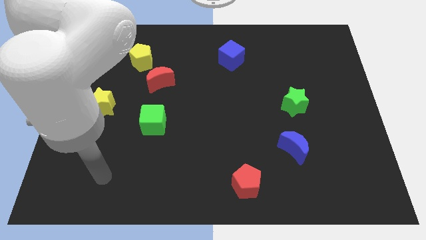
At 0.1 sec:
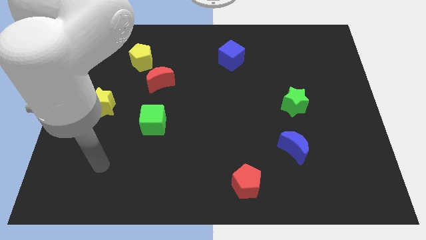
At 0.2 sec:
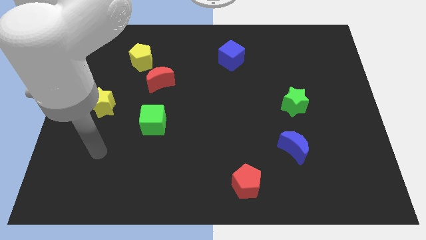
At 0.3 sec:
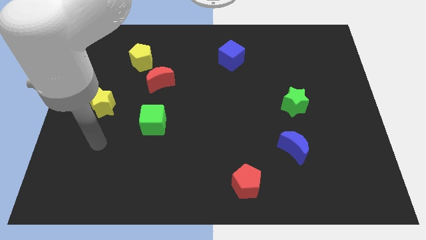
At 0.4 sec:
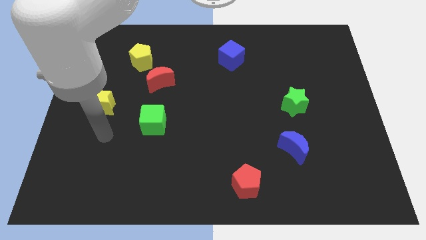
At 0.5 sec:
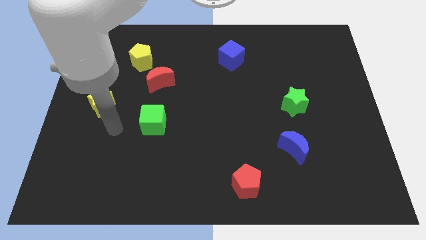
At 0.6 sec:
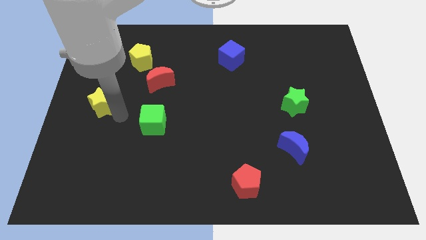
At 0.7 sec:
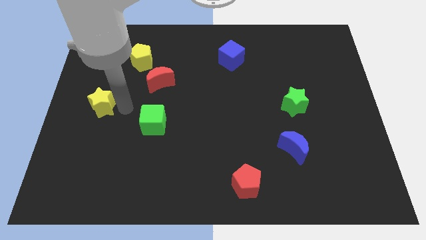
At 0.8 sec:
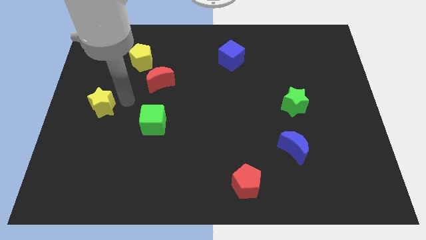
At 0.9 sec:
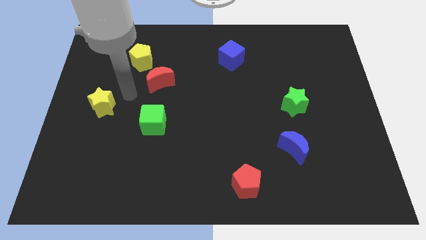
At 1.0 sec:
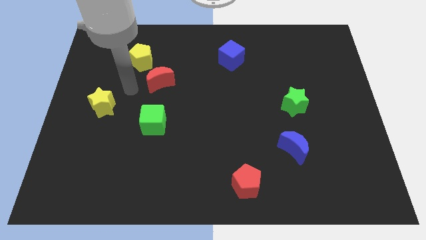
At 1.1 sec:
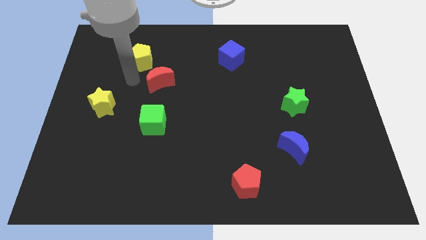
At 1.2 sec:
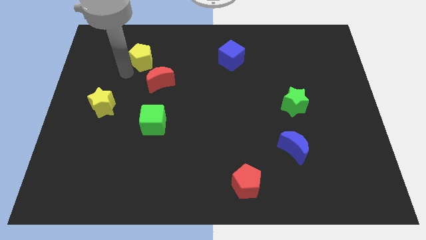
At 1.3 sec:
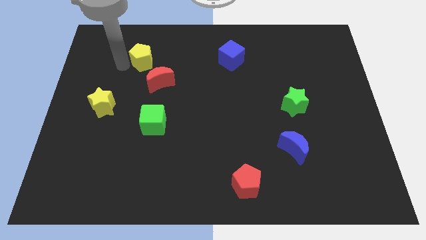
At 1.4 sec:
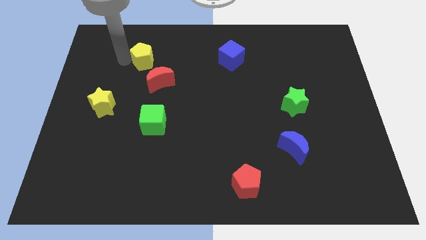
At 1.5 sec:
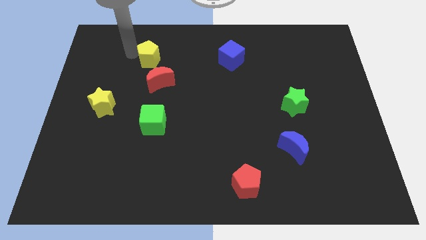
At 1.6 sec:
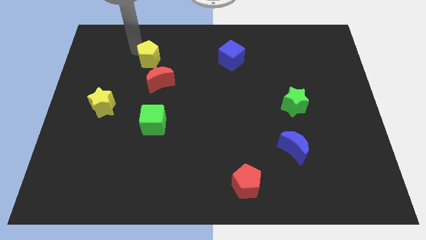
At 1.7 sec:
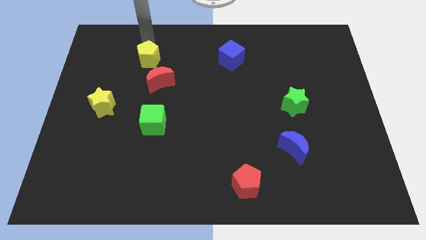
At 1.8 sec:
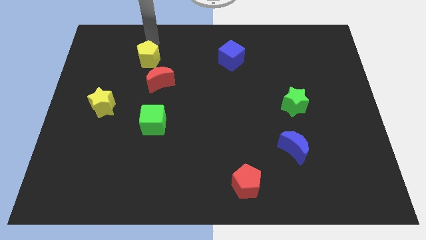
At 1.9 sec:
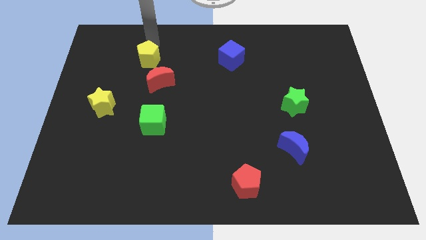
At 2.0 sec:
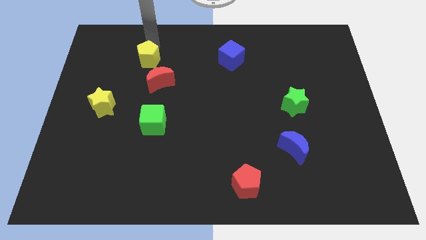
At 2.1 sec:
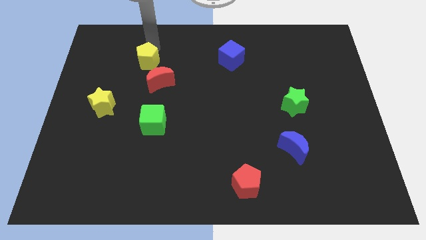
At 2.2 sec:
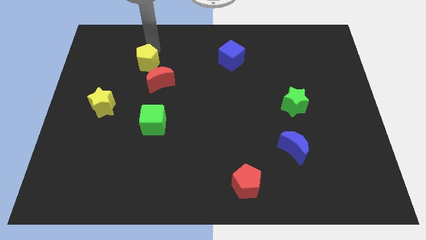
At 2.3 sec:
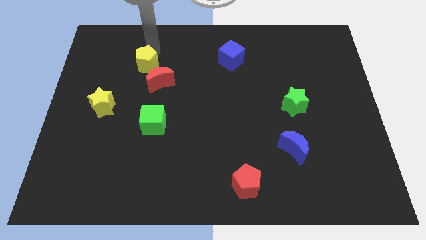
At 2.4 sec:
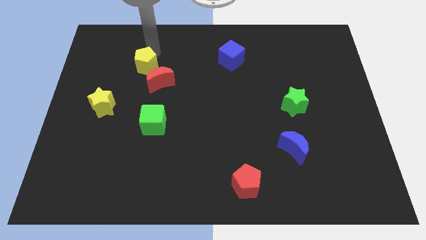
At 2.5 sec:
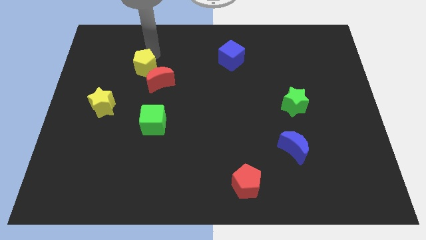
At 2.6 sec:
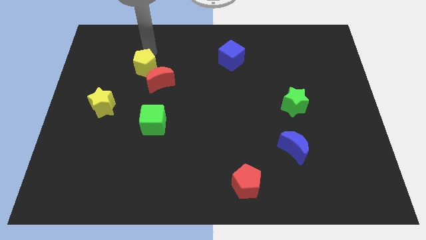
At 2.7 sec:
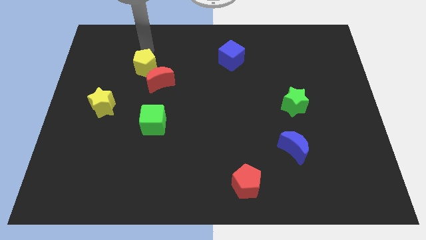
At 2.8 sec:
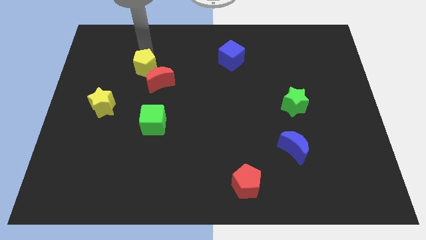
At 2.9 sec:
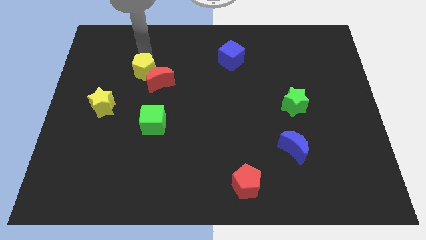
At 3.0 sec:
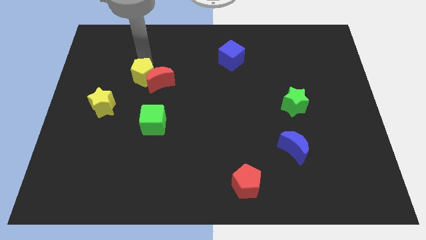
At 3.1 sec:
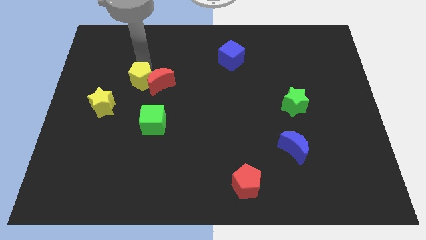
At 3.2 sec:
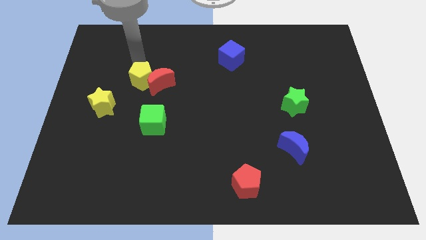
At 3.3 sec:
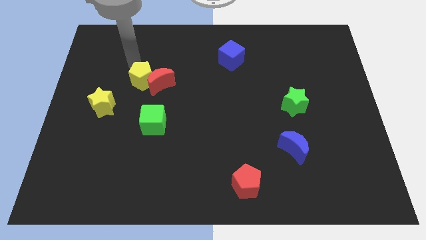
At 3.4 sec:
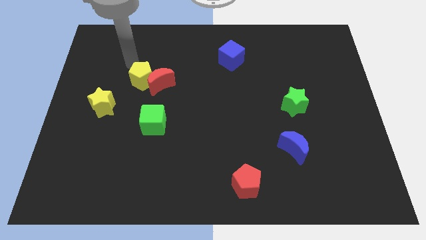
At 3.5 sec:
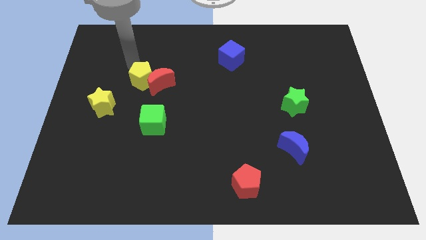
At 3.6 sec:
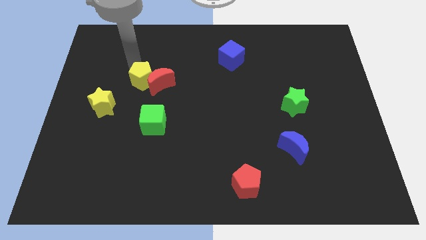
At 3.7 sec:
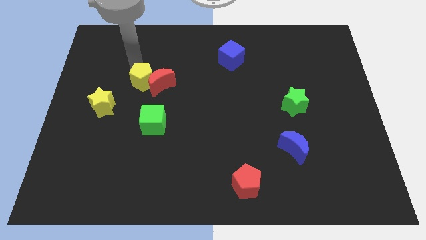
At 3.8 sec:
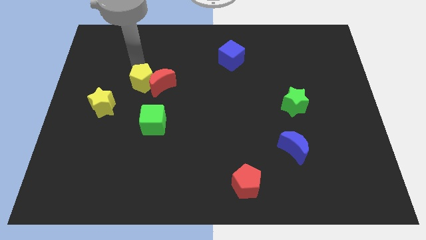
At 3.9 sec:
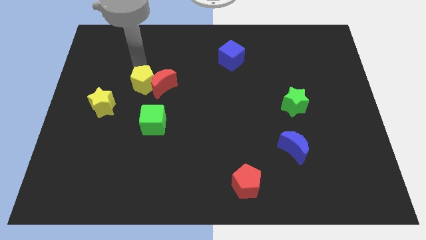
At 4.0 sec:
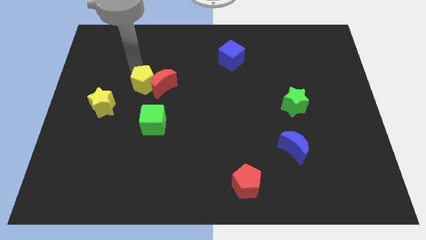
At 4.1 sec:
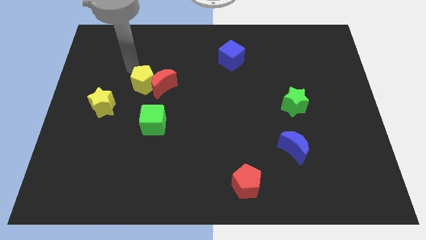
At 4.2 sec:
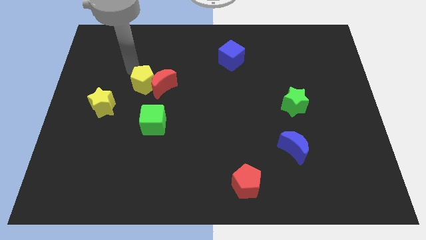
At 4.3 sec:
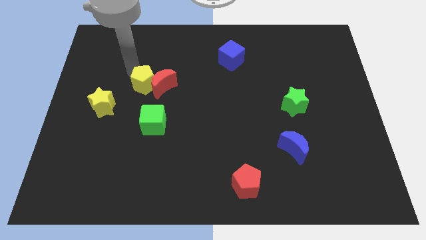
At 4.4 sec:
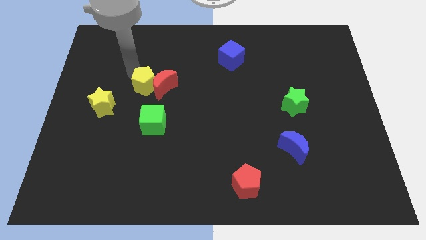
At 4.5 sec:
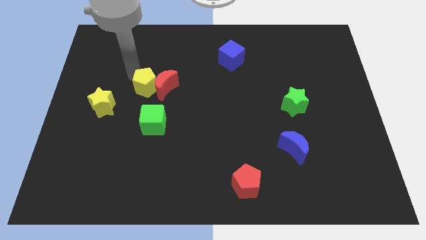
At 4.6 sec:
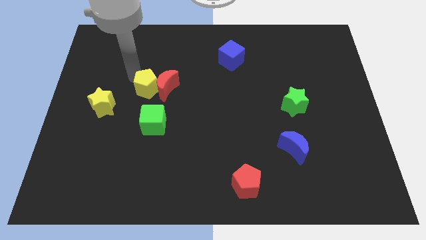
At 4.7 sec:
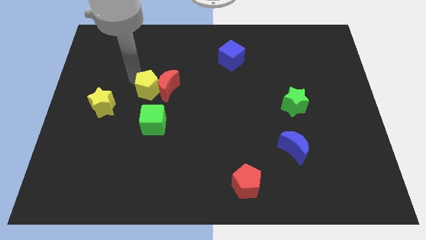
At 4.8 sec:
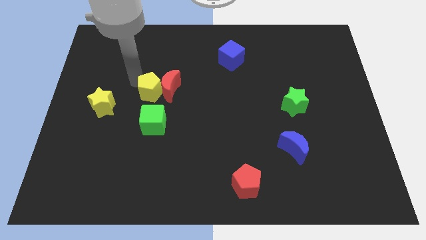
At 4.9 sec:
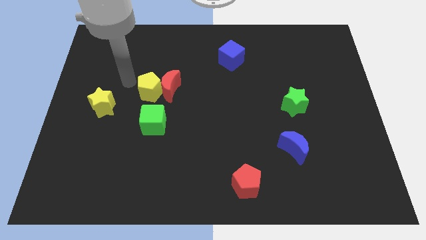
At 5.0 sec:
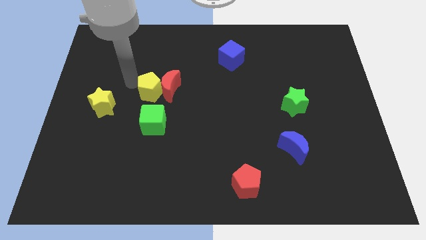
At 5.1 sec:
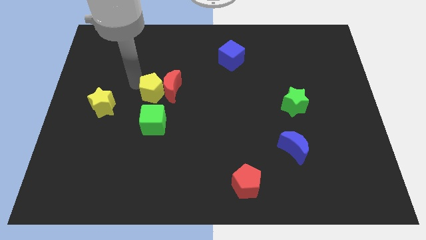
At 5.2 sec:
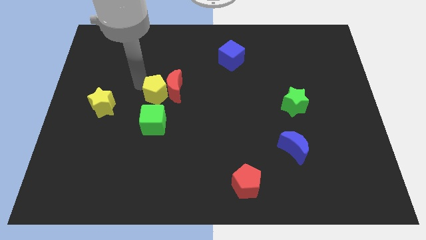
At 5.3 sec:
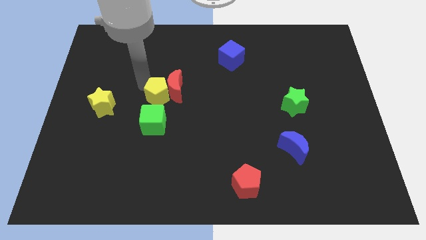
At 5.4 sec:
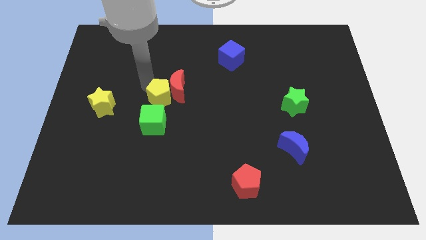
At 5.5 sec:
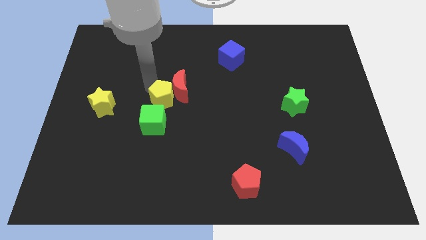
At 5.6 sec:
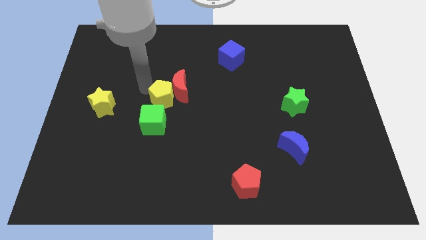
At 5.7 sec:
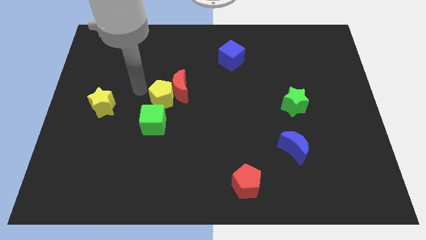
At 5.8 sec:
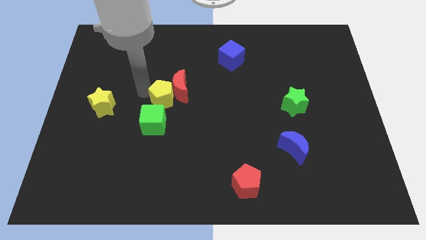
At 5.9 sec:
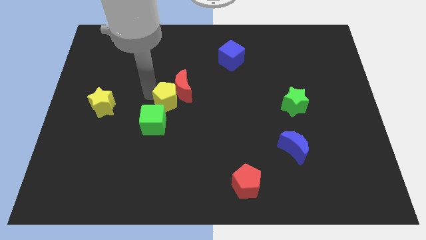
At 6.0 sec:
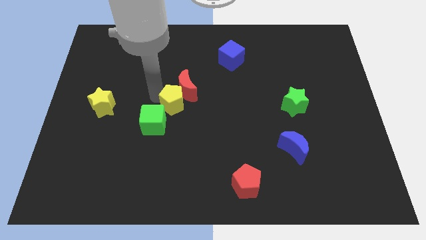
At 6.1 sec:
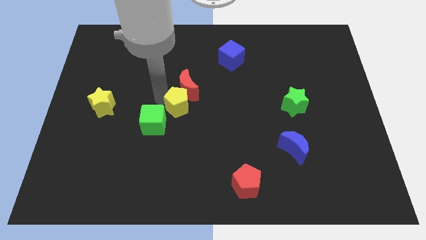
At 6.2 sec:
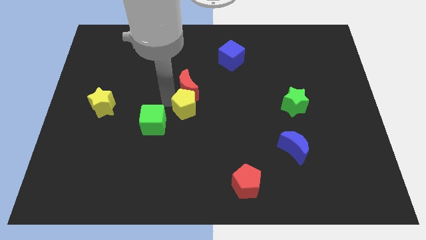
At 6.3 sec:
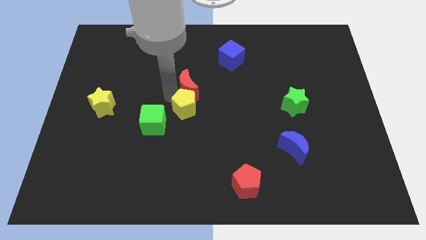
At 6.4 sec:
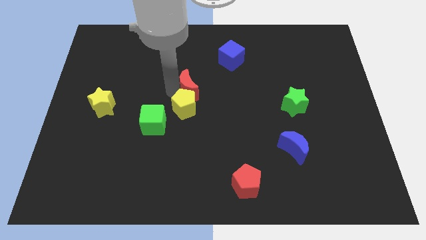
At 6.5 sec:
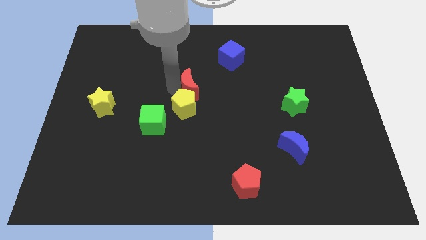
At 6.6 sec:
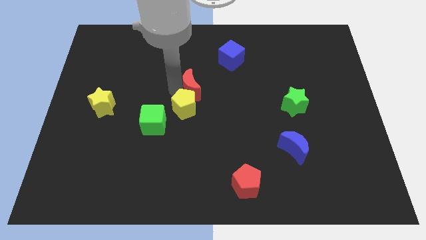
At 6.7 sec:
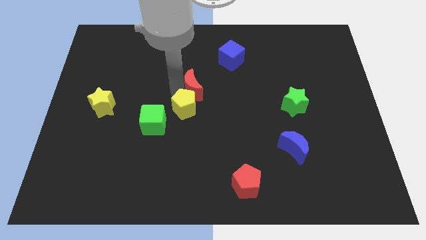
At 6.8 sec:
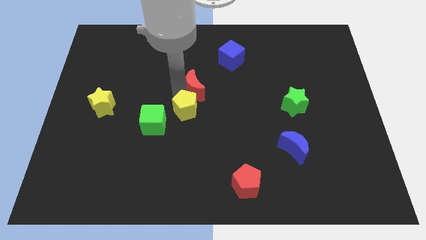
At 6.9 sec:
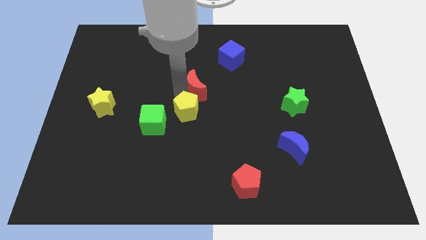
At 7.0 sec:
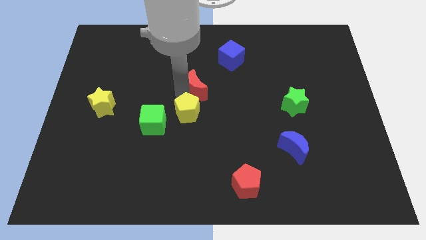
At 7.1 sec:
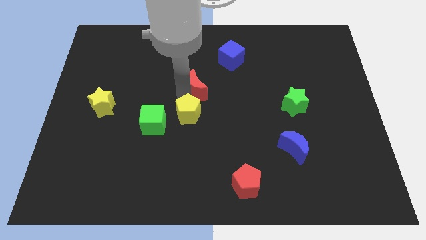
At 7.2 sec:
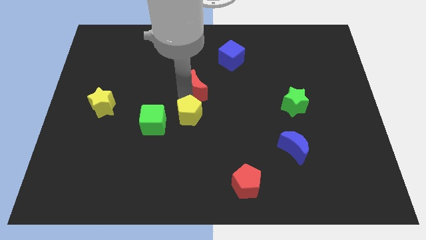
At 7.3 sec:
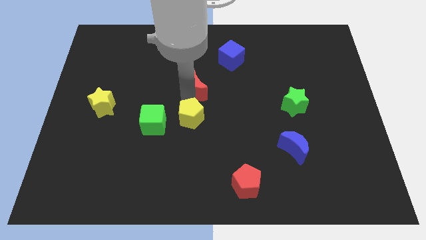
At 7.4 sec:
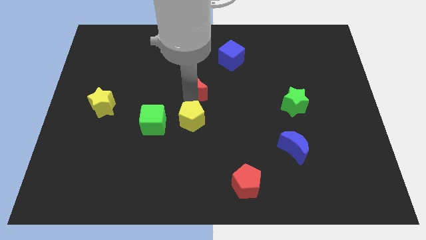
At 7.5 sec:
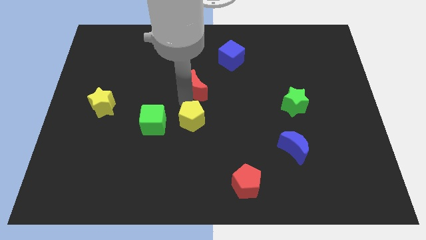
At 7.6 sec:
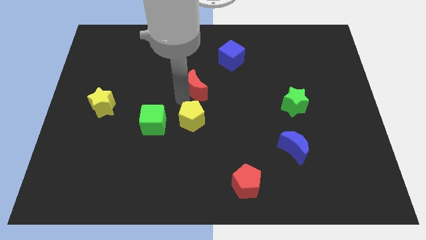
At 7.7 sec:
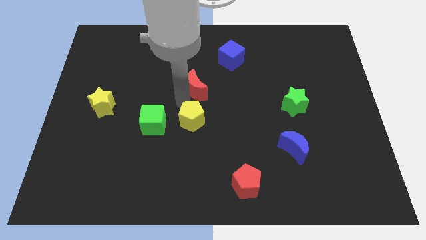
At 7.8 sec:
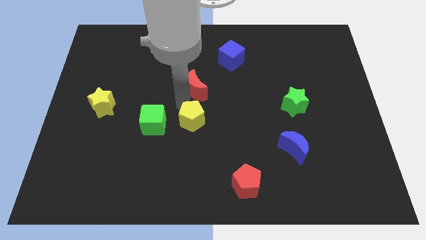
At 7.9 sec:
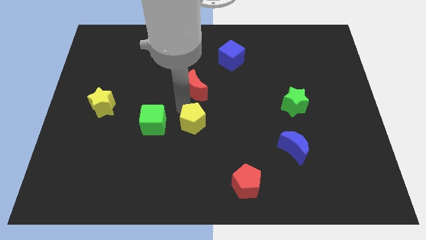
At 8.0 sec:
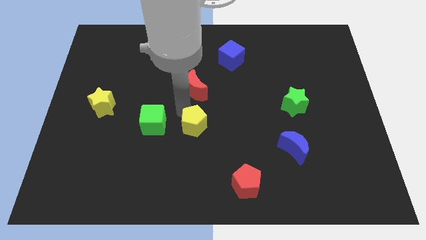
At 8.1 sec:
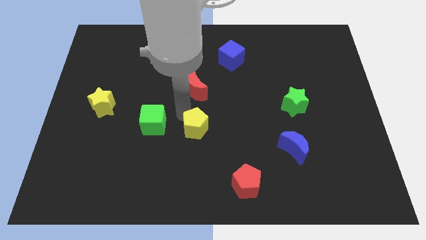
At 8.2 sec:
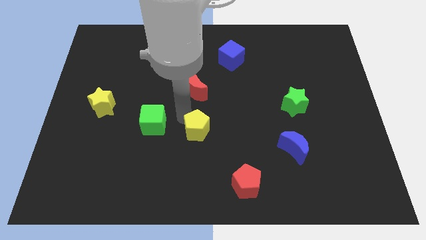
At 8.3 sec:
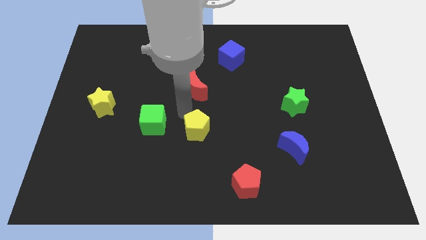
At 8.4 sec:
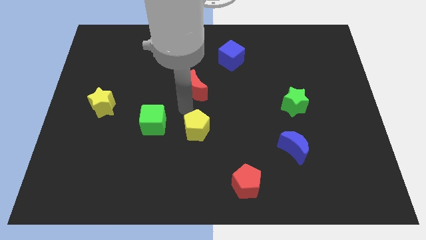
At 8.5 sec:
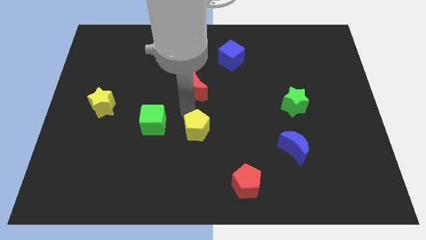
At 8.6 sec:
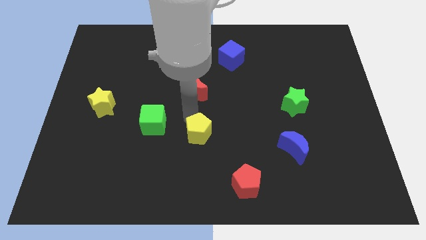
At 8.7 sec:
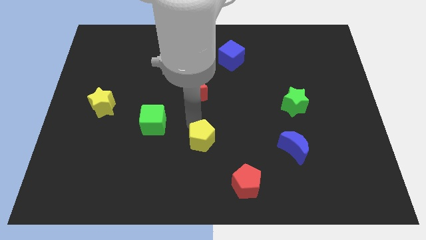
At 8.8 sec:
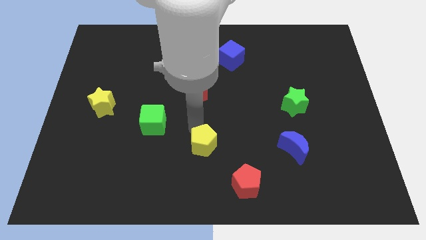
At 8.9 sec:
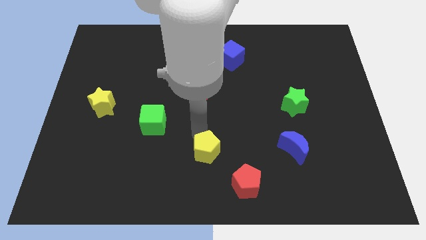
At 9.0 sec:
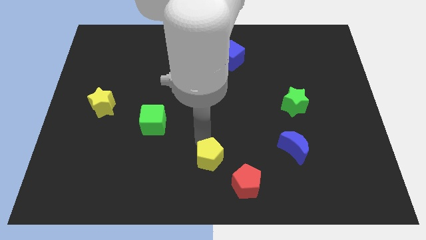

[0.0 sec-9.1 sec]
push the yellow pentagon to the bottom
